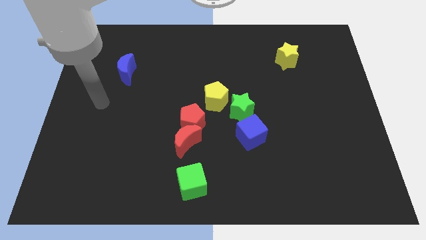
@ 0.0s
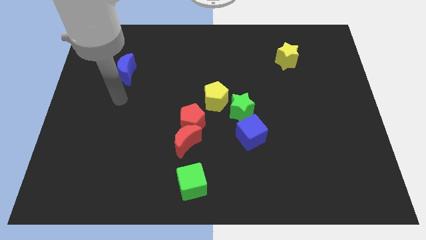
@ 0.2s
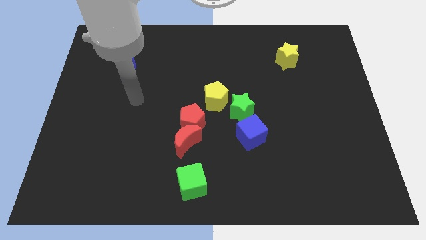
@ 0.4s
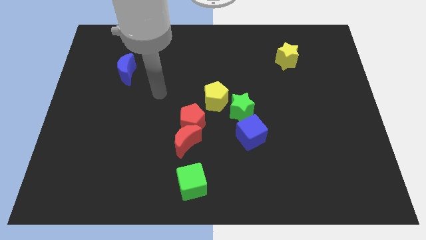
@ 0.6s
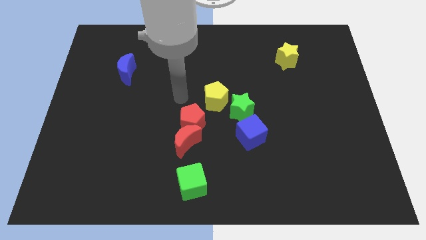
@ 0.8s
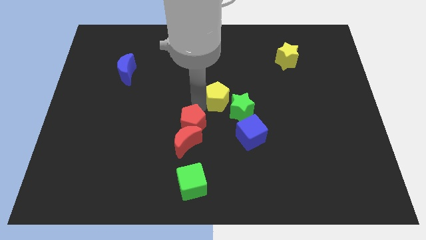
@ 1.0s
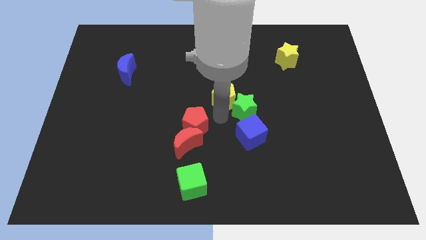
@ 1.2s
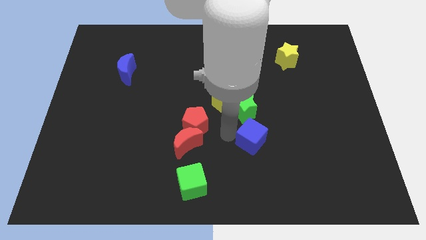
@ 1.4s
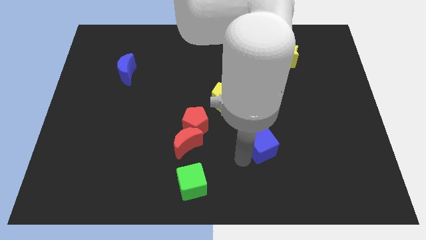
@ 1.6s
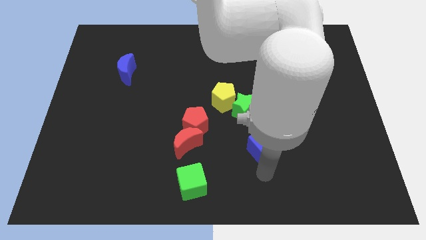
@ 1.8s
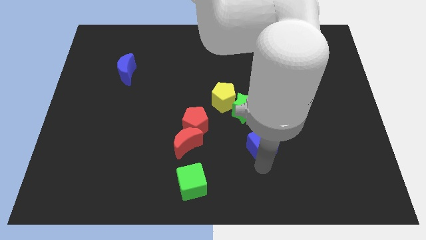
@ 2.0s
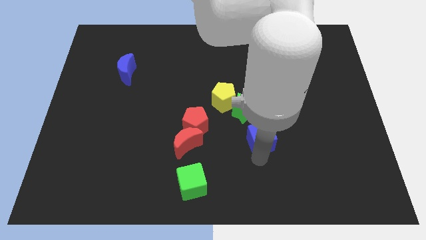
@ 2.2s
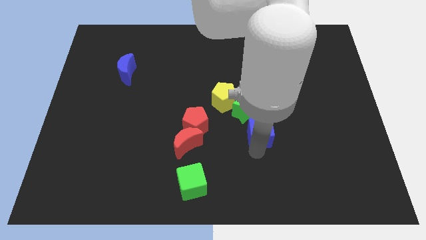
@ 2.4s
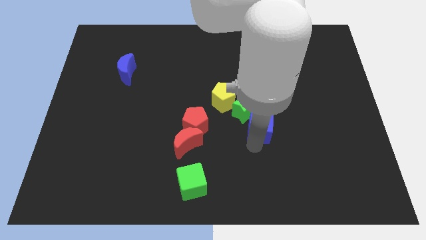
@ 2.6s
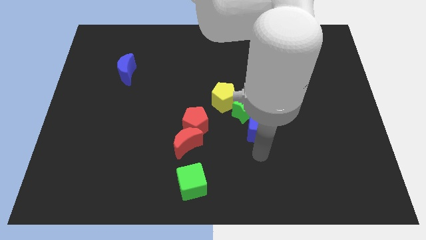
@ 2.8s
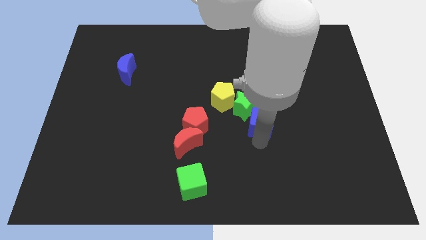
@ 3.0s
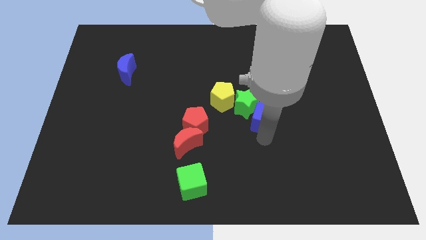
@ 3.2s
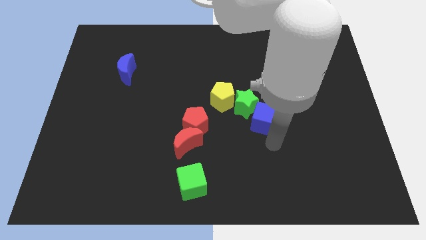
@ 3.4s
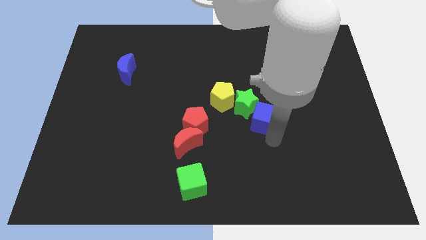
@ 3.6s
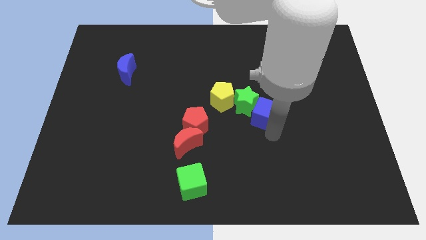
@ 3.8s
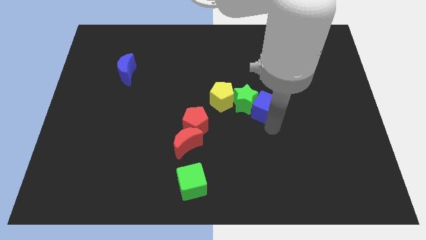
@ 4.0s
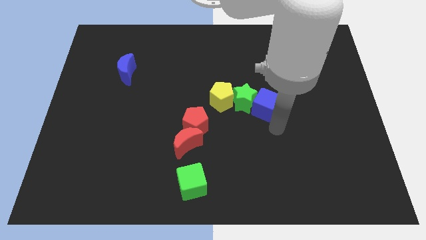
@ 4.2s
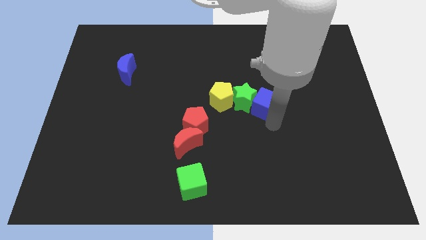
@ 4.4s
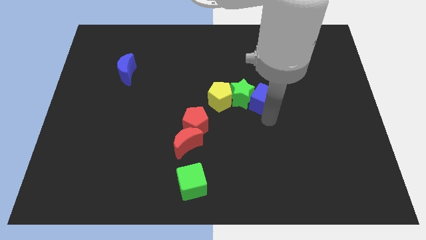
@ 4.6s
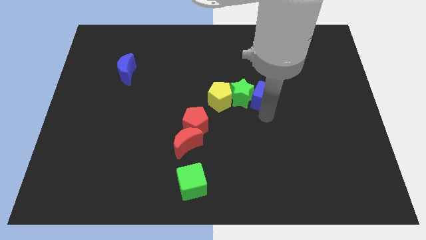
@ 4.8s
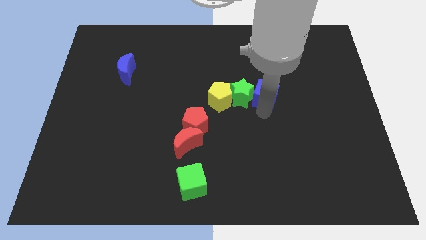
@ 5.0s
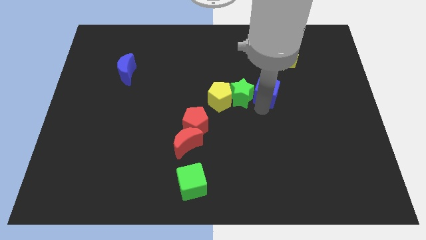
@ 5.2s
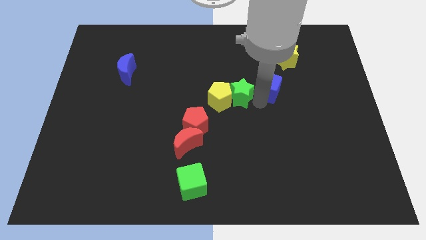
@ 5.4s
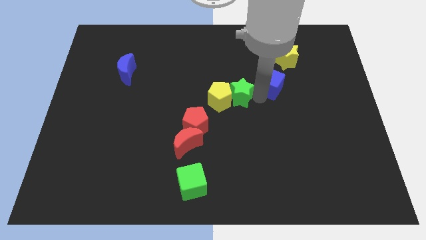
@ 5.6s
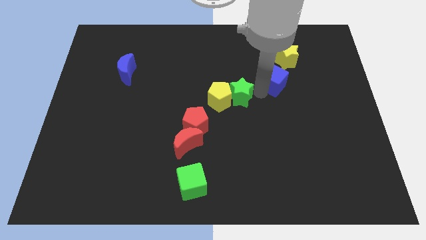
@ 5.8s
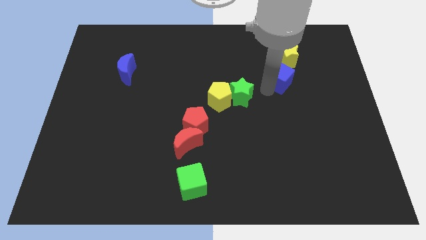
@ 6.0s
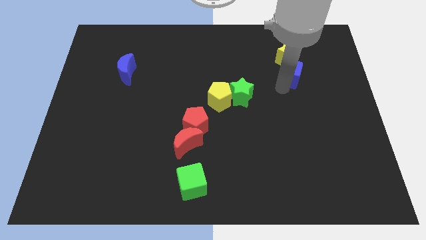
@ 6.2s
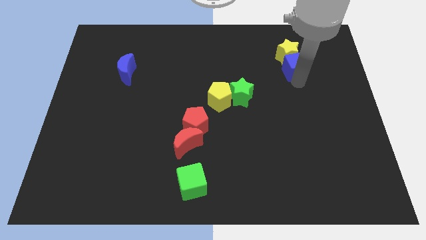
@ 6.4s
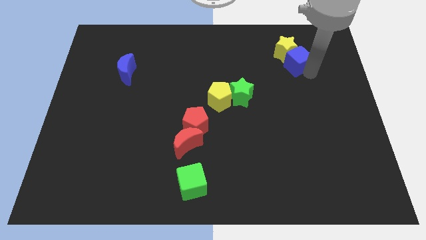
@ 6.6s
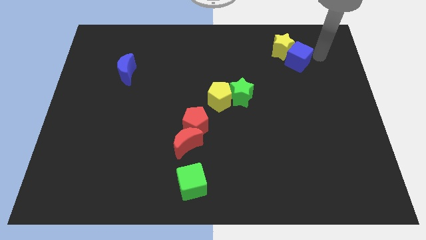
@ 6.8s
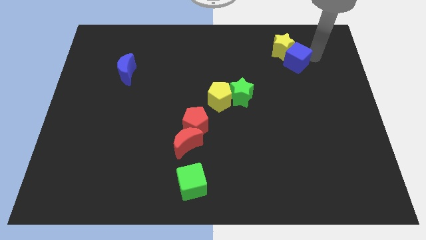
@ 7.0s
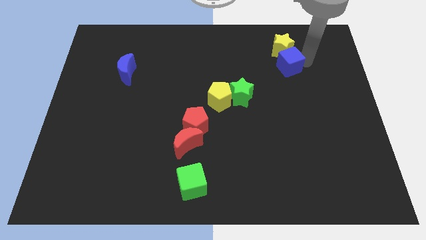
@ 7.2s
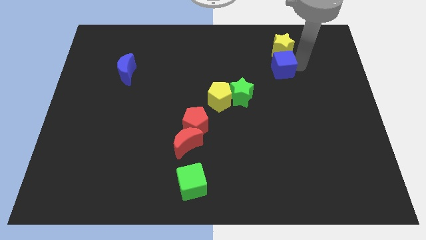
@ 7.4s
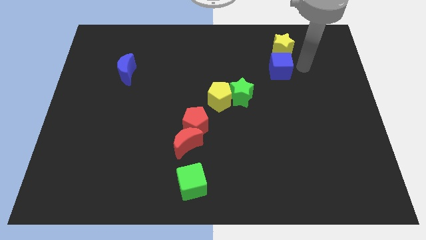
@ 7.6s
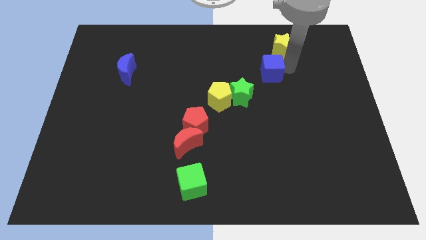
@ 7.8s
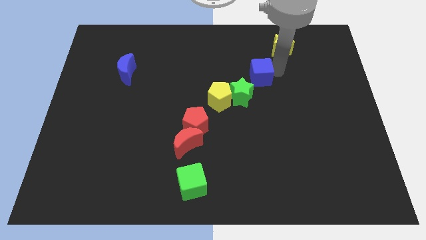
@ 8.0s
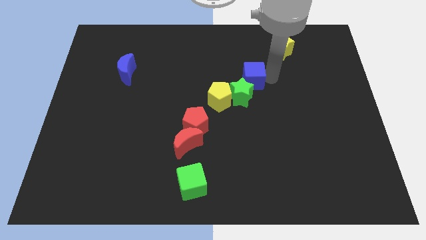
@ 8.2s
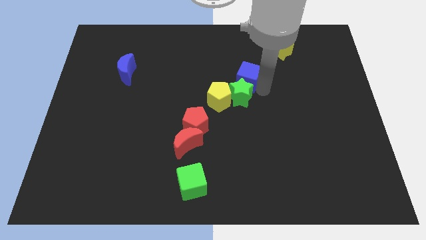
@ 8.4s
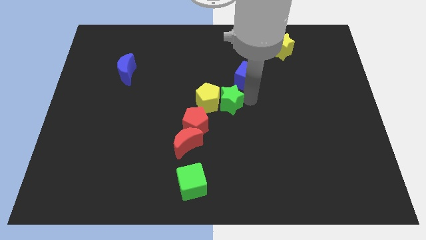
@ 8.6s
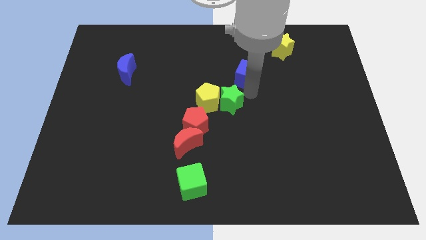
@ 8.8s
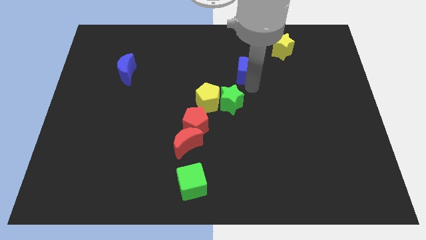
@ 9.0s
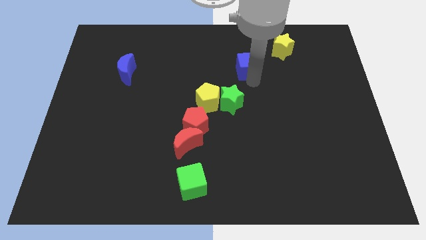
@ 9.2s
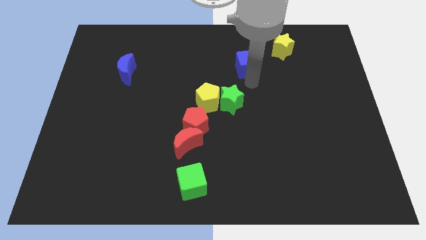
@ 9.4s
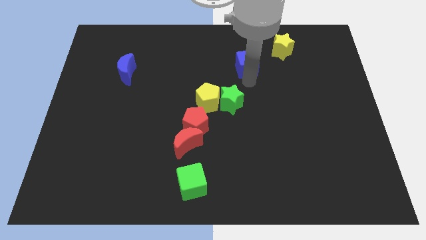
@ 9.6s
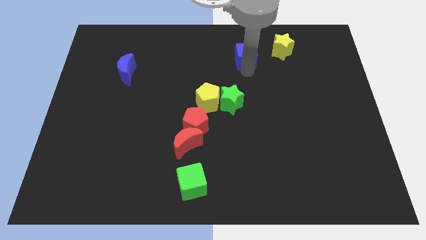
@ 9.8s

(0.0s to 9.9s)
slide the blue cube to the left of the yellow star

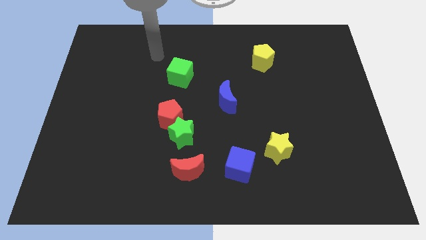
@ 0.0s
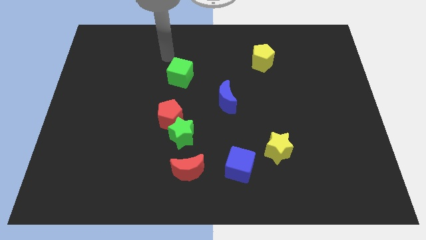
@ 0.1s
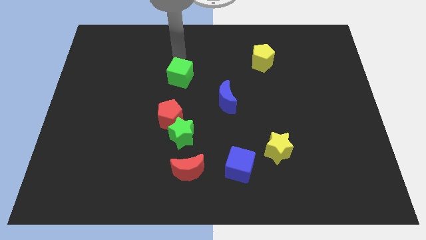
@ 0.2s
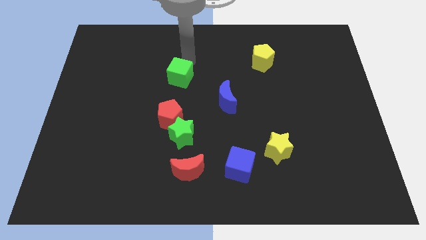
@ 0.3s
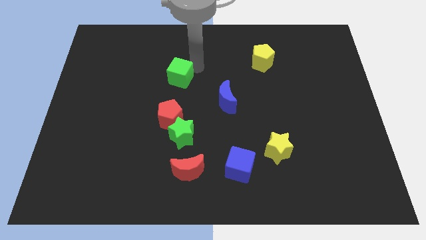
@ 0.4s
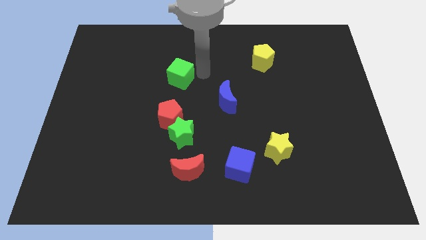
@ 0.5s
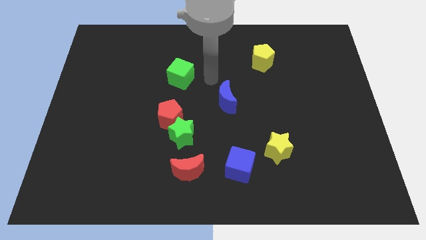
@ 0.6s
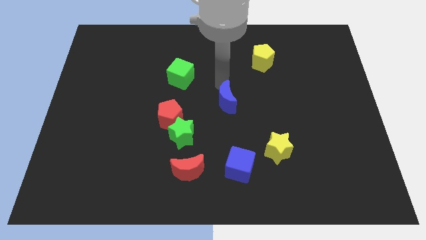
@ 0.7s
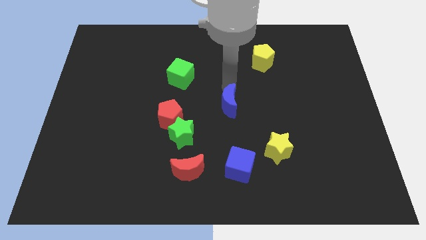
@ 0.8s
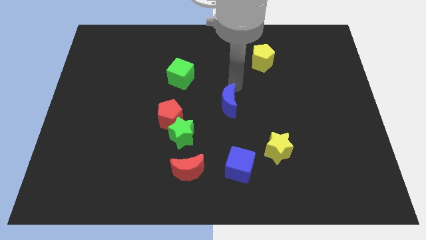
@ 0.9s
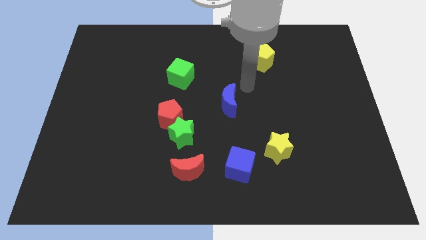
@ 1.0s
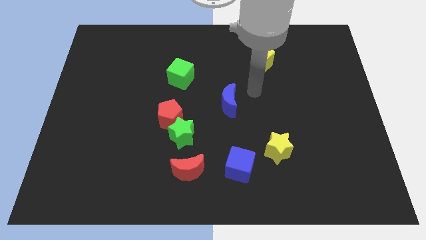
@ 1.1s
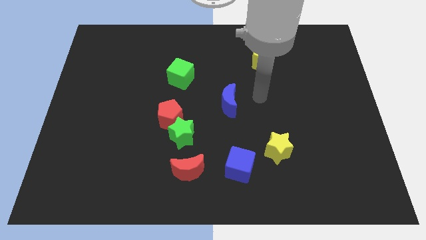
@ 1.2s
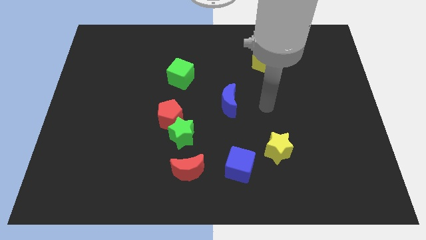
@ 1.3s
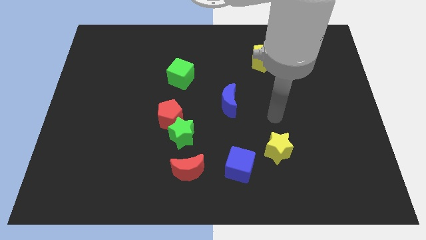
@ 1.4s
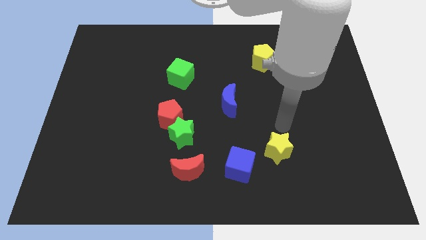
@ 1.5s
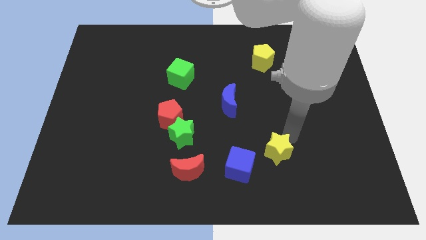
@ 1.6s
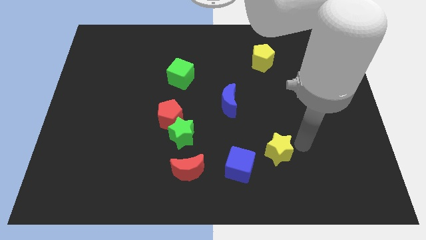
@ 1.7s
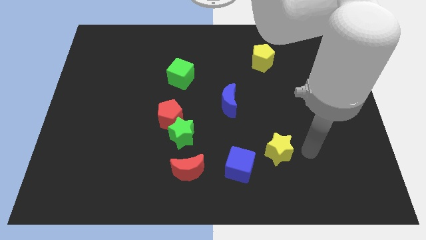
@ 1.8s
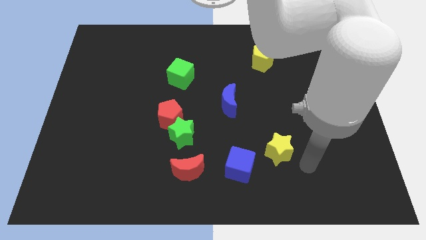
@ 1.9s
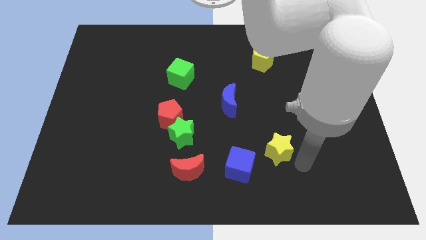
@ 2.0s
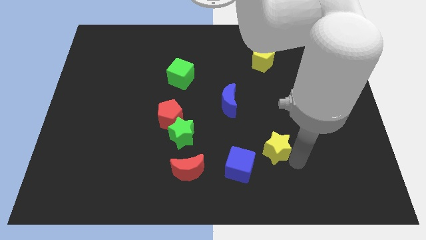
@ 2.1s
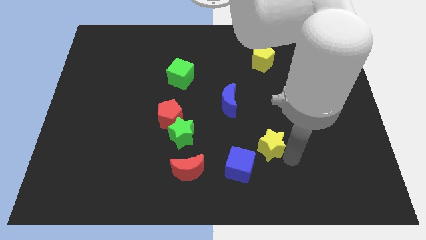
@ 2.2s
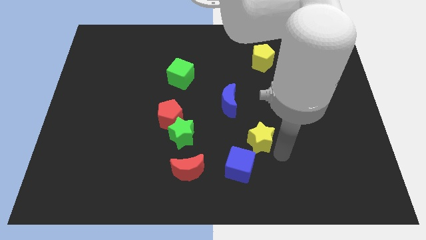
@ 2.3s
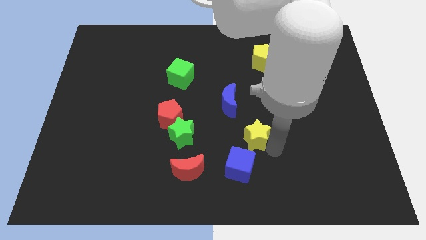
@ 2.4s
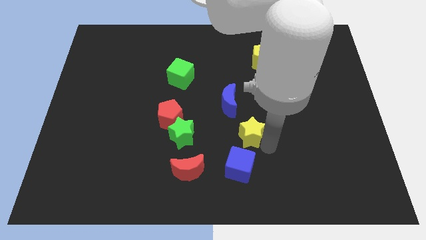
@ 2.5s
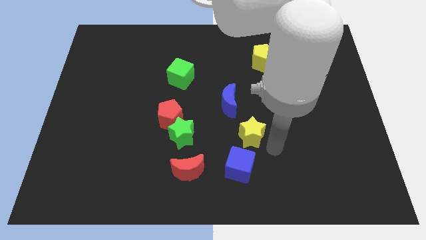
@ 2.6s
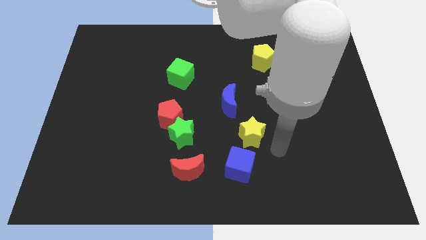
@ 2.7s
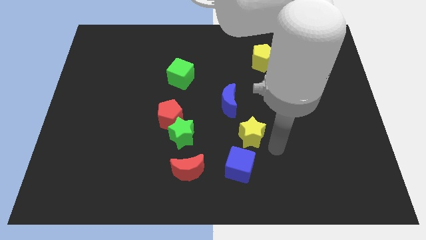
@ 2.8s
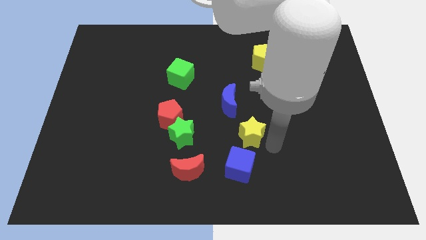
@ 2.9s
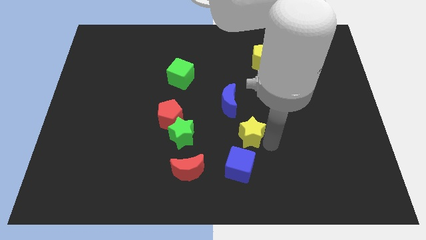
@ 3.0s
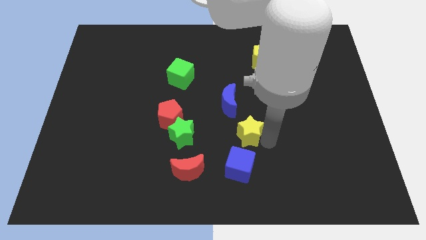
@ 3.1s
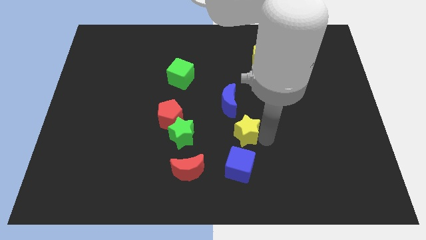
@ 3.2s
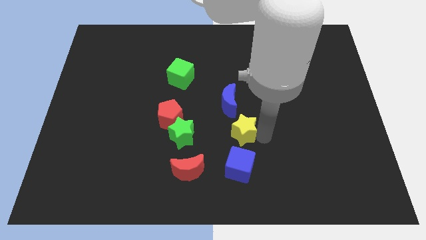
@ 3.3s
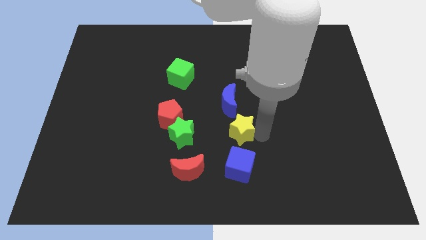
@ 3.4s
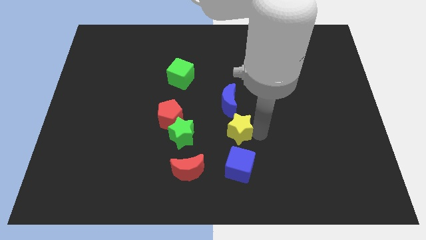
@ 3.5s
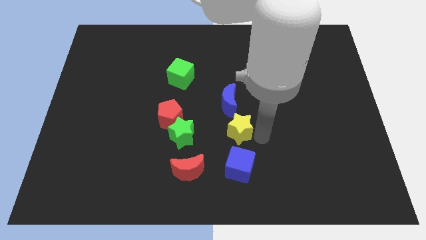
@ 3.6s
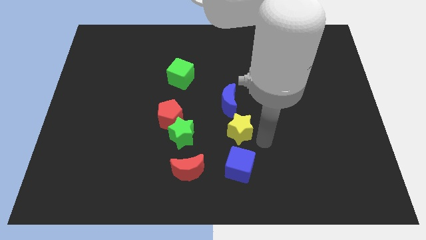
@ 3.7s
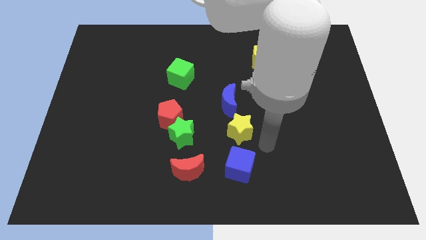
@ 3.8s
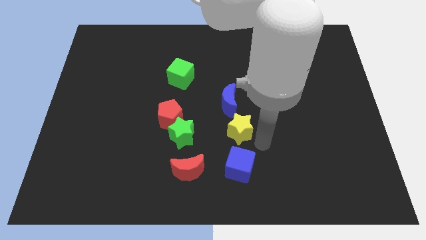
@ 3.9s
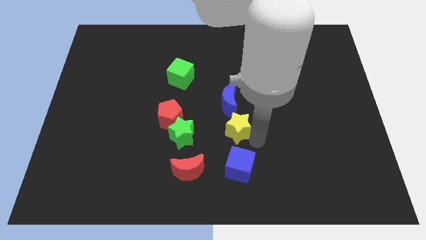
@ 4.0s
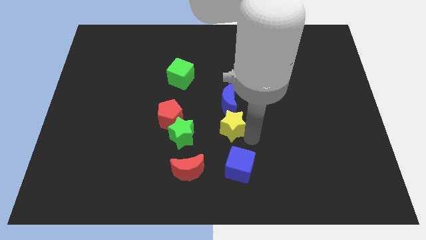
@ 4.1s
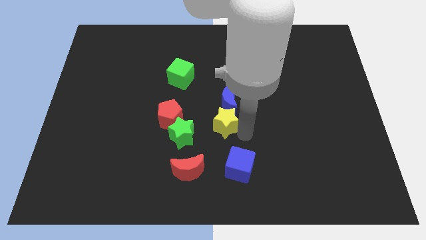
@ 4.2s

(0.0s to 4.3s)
move the yellow star to the bottom left side of the blue moon
